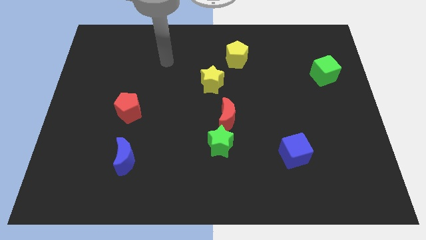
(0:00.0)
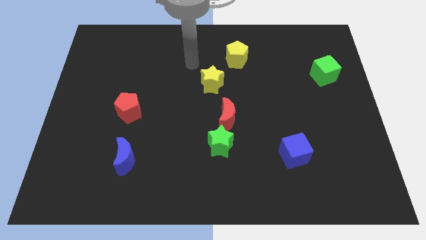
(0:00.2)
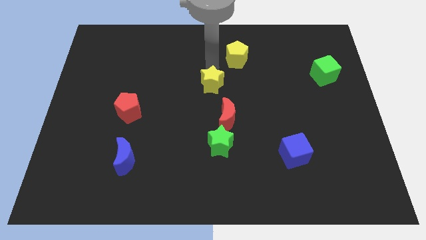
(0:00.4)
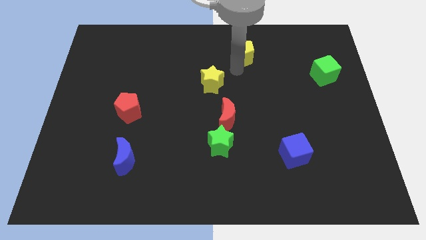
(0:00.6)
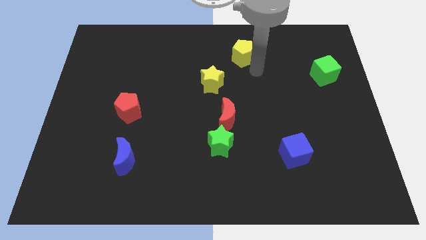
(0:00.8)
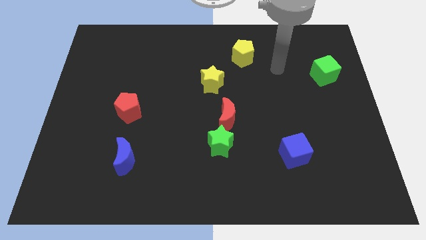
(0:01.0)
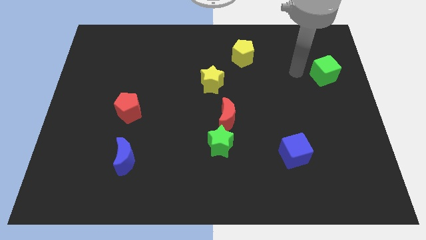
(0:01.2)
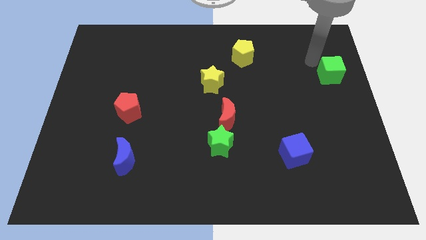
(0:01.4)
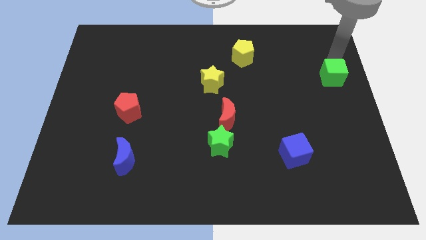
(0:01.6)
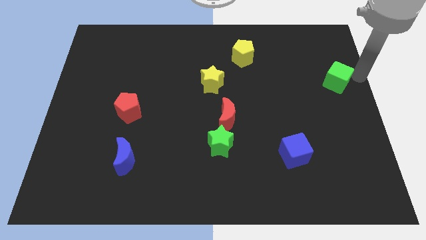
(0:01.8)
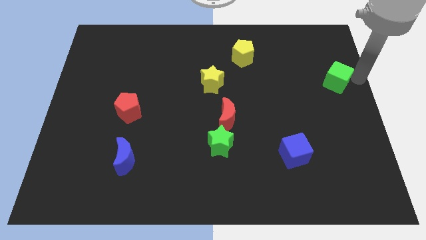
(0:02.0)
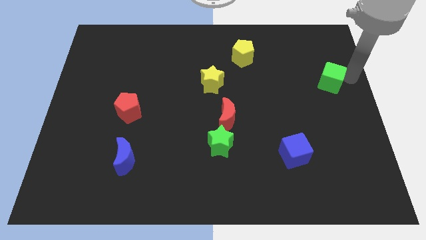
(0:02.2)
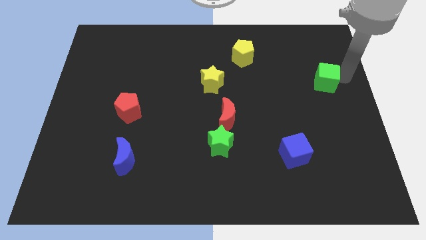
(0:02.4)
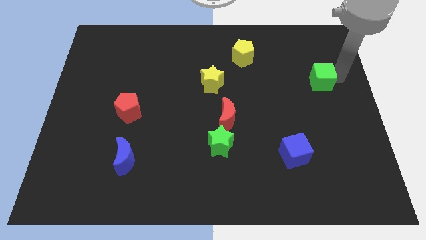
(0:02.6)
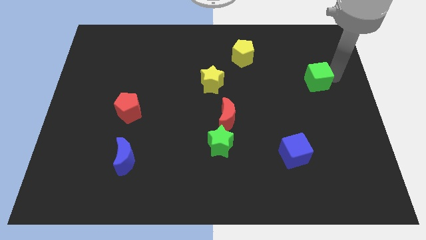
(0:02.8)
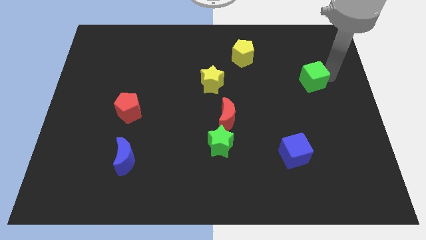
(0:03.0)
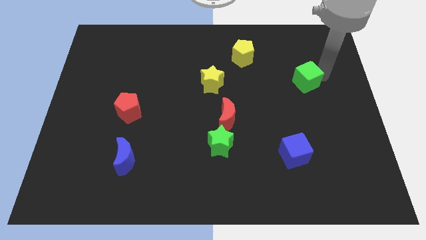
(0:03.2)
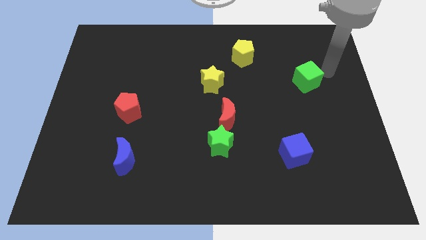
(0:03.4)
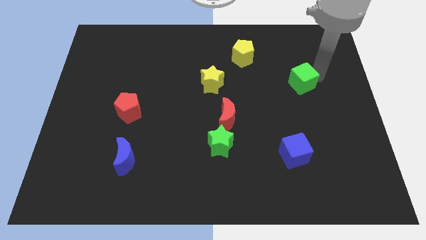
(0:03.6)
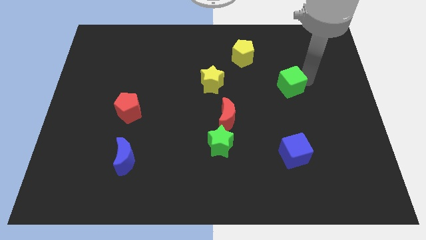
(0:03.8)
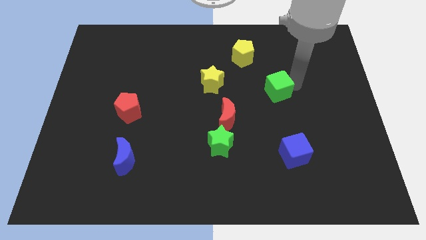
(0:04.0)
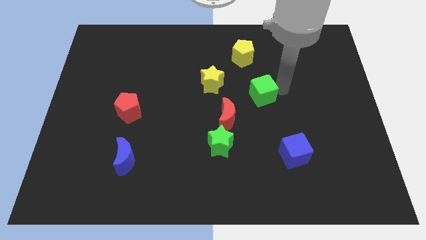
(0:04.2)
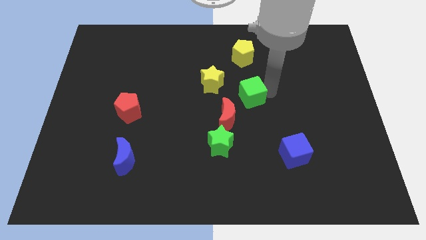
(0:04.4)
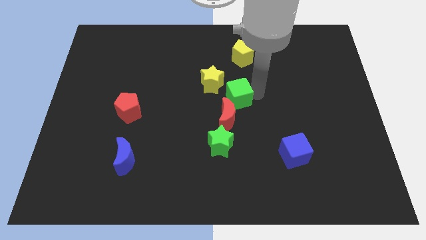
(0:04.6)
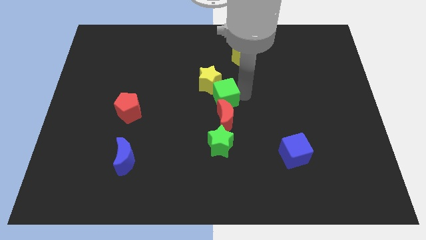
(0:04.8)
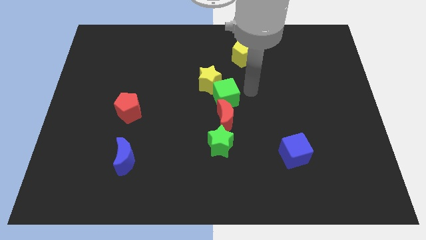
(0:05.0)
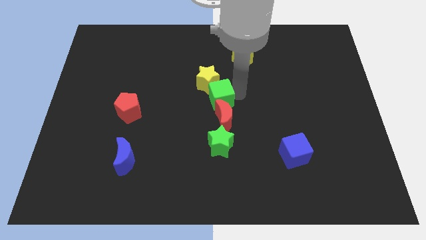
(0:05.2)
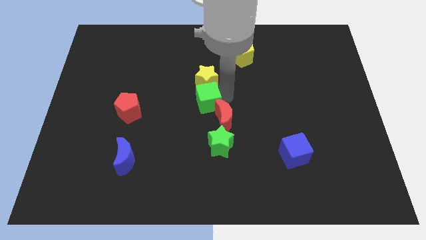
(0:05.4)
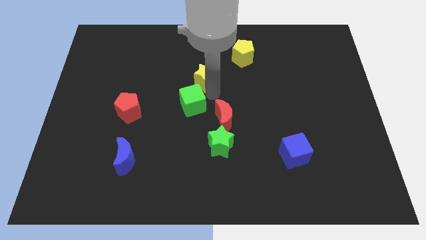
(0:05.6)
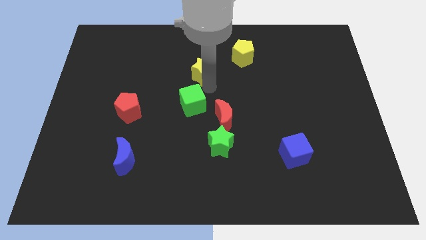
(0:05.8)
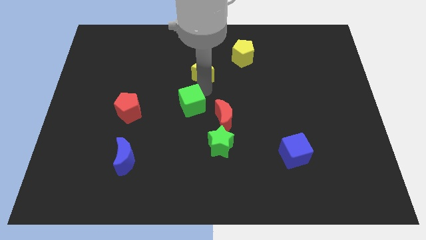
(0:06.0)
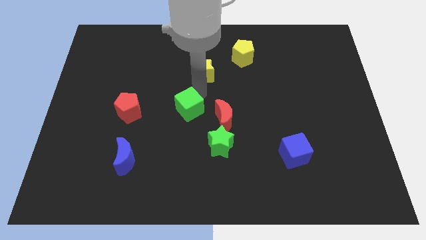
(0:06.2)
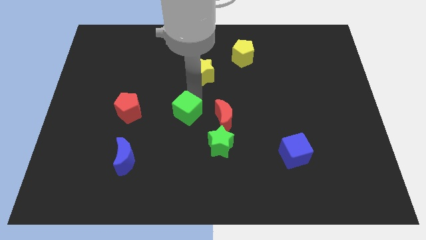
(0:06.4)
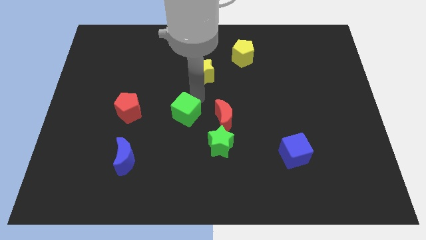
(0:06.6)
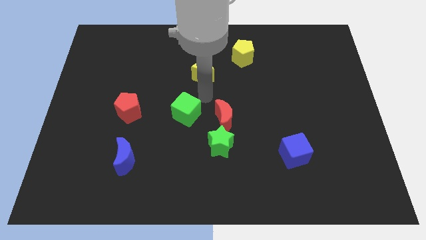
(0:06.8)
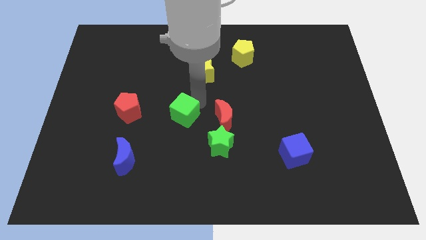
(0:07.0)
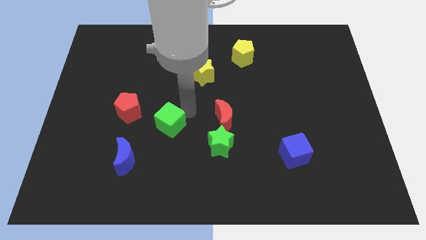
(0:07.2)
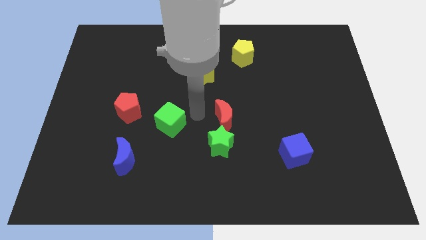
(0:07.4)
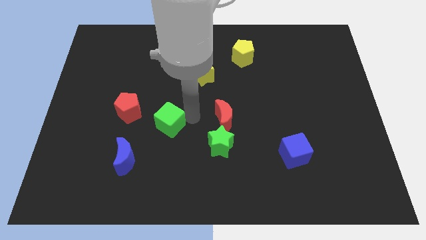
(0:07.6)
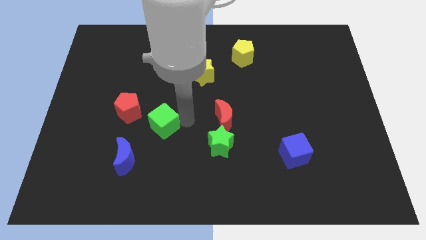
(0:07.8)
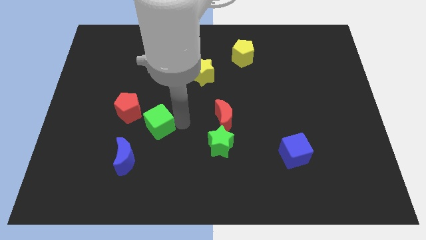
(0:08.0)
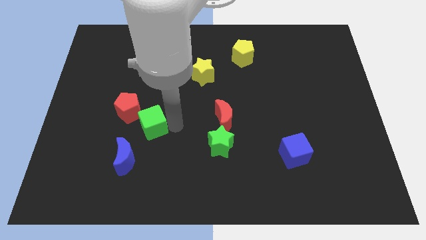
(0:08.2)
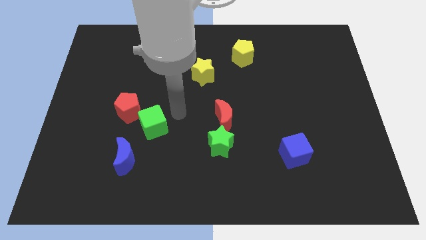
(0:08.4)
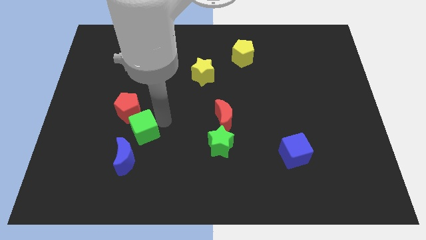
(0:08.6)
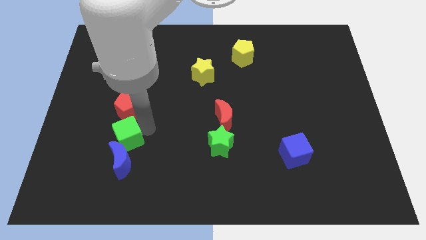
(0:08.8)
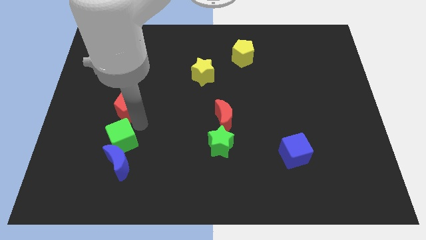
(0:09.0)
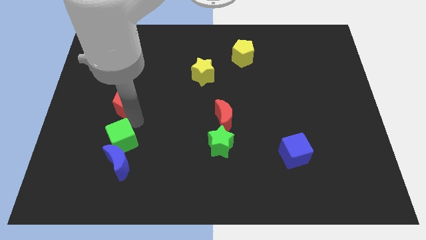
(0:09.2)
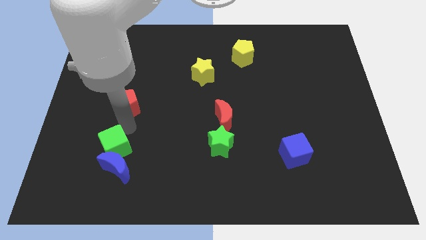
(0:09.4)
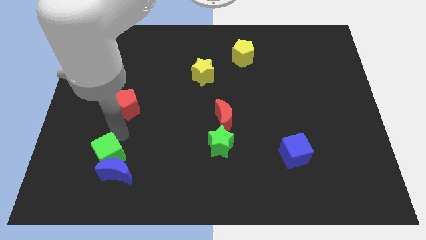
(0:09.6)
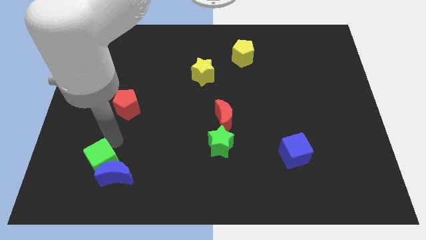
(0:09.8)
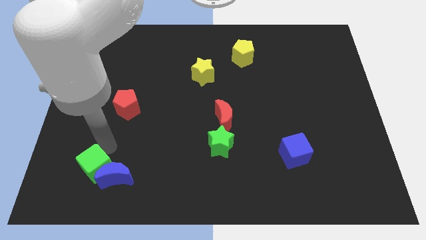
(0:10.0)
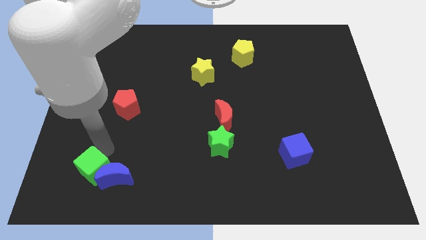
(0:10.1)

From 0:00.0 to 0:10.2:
move the green cube to the bottom left side of the blue moon

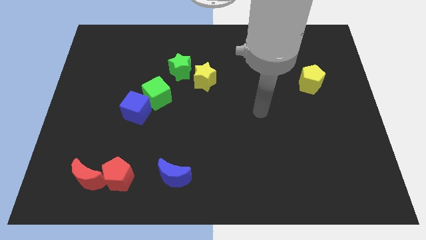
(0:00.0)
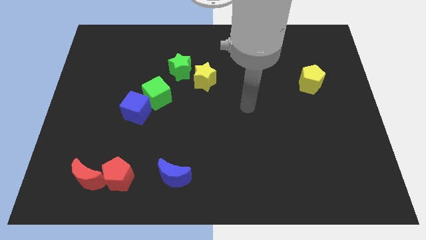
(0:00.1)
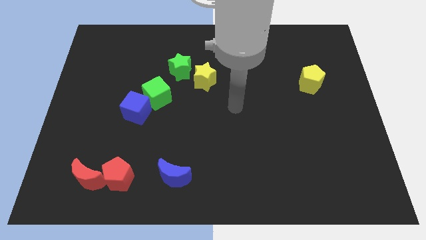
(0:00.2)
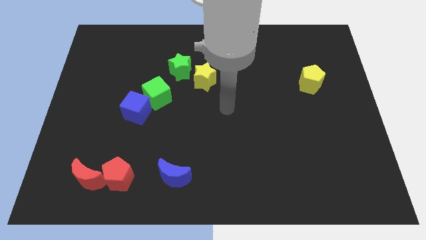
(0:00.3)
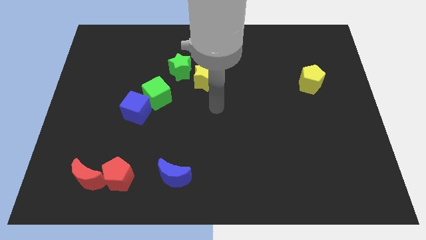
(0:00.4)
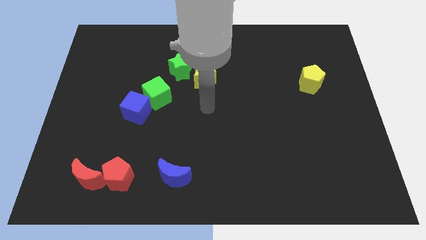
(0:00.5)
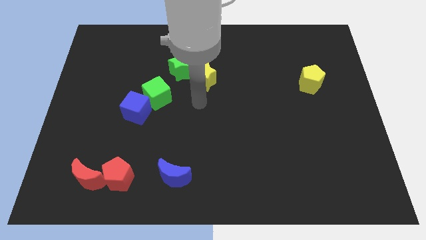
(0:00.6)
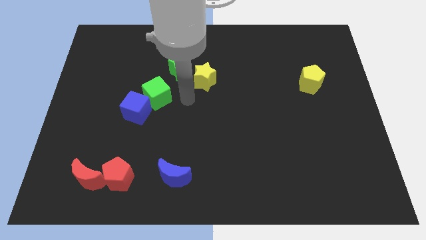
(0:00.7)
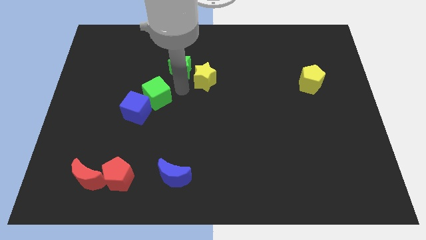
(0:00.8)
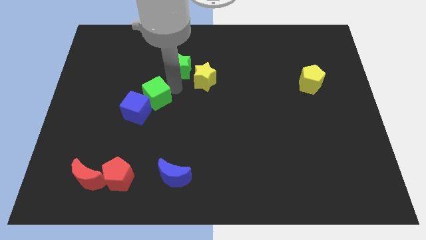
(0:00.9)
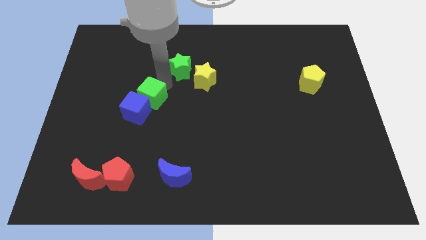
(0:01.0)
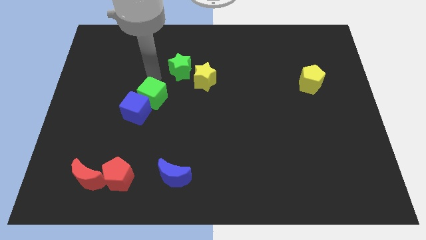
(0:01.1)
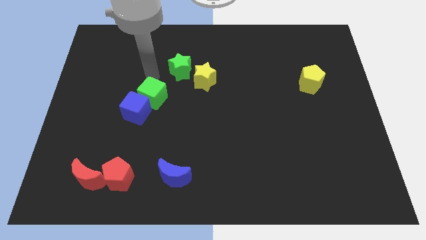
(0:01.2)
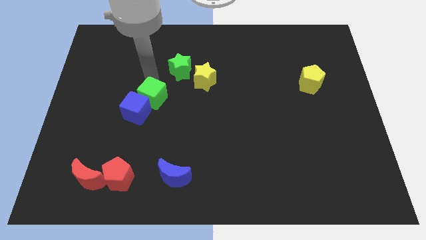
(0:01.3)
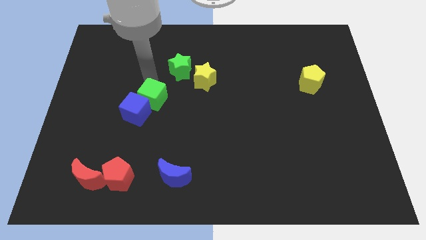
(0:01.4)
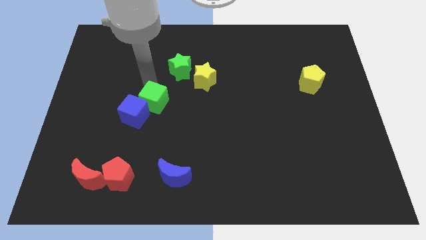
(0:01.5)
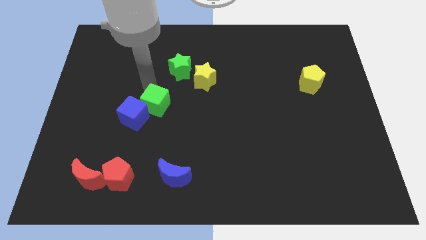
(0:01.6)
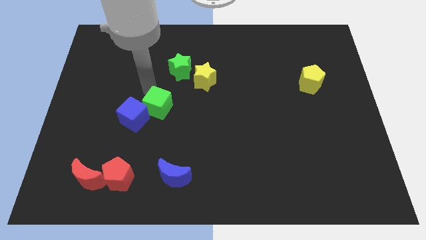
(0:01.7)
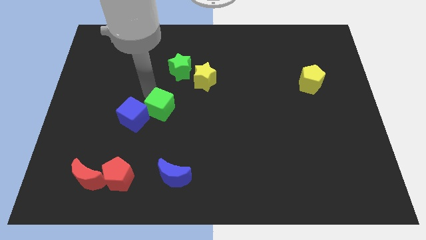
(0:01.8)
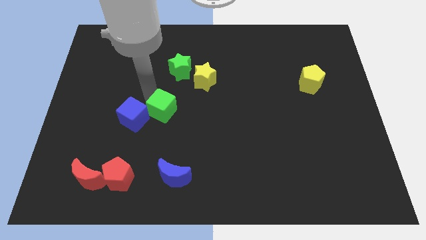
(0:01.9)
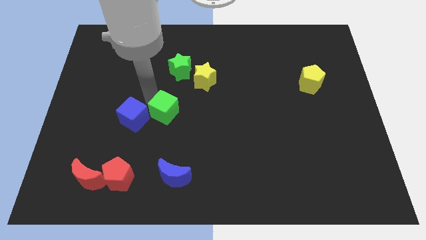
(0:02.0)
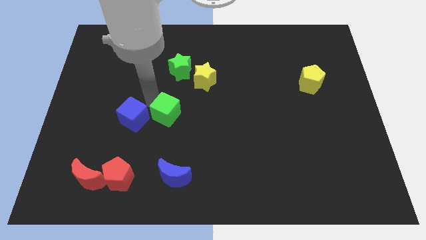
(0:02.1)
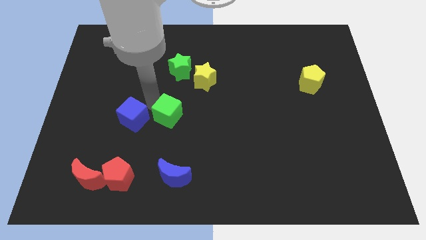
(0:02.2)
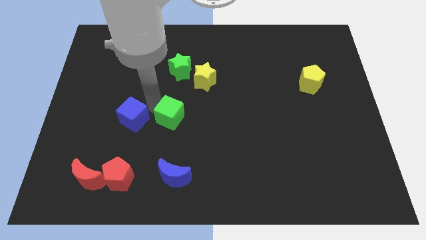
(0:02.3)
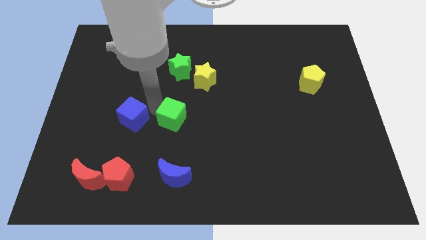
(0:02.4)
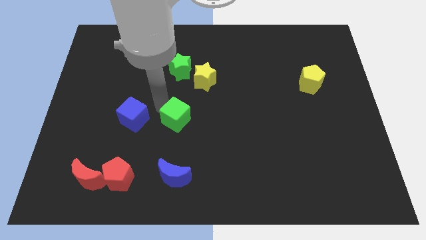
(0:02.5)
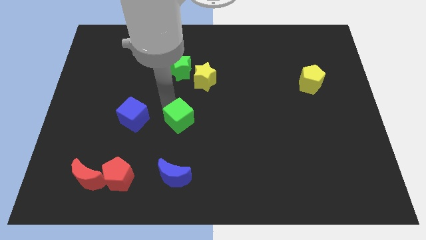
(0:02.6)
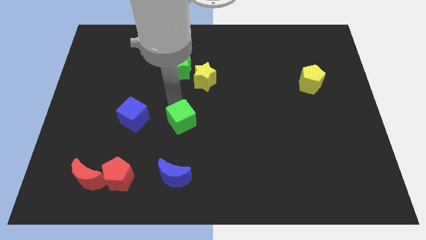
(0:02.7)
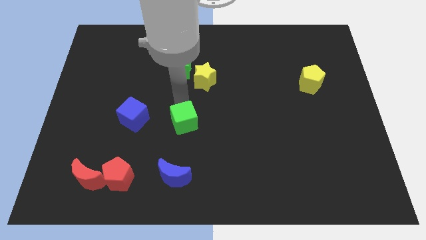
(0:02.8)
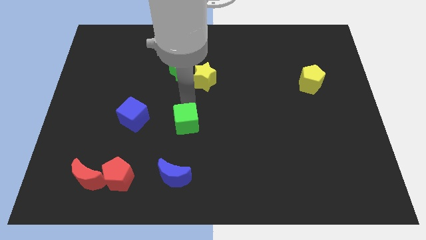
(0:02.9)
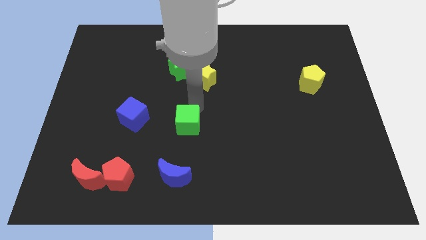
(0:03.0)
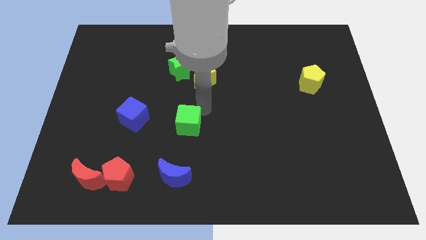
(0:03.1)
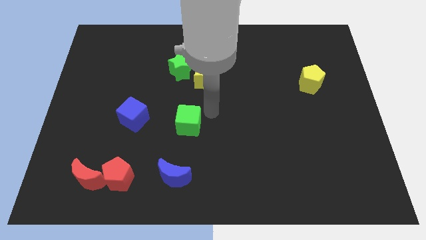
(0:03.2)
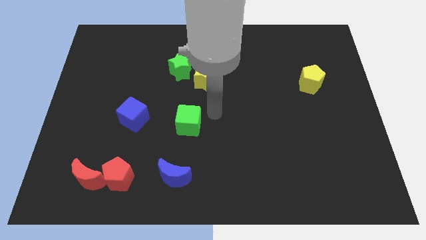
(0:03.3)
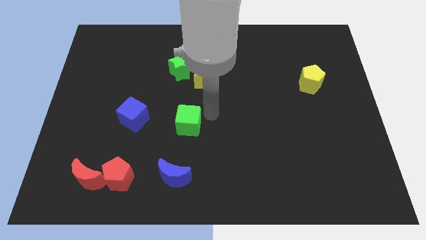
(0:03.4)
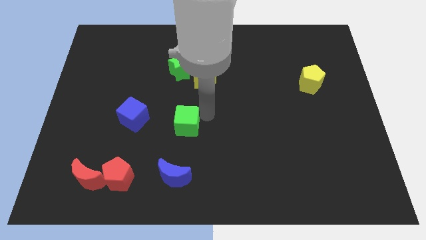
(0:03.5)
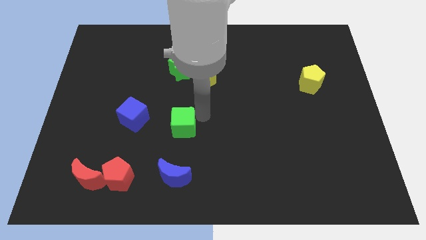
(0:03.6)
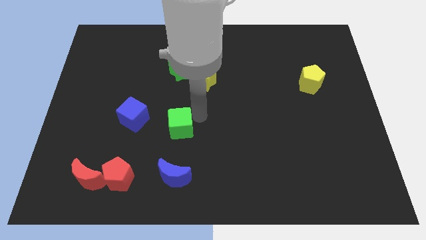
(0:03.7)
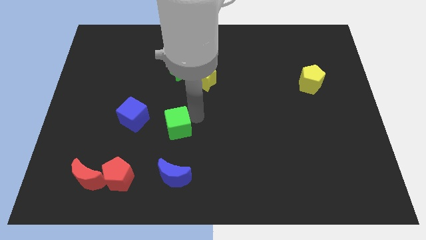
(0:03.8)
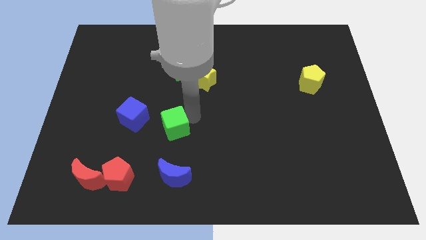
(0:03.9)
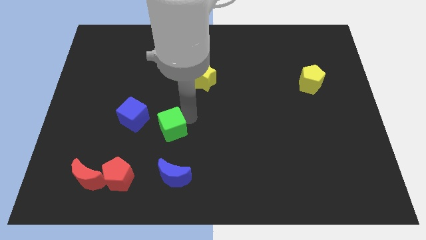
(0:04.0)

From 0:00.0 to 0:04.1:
move the green cube to the bottom right of the blue cube
